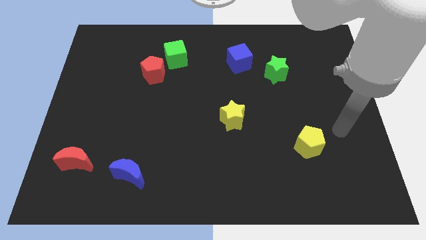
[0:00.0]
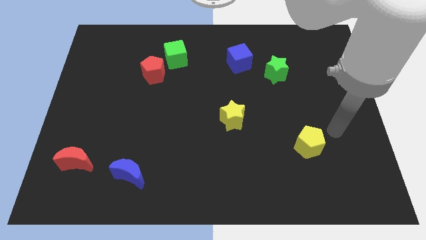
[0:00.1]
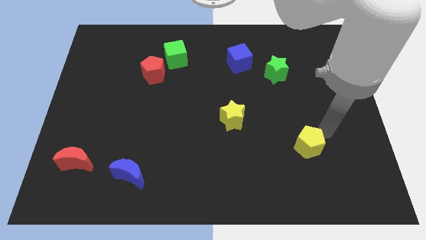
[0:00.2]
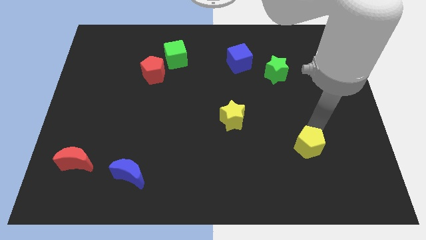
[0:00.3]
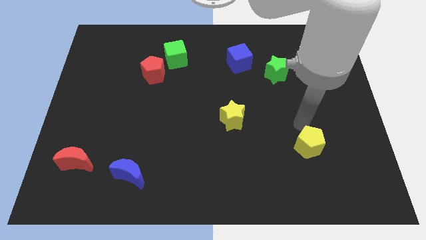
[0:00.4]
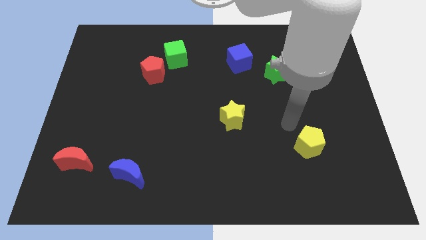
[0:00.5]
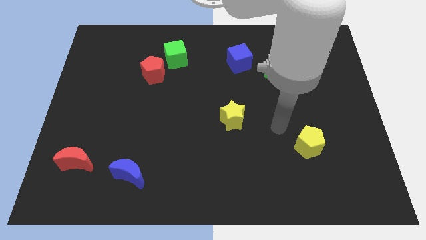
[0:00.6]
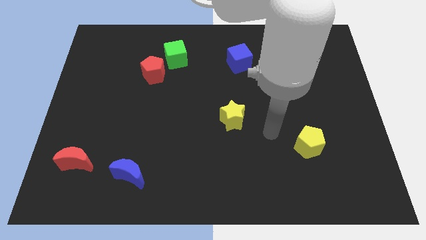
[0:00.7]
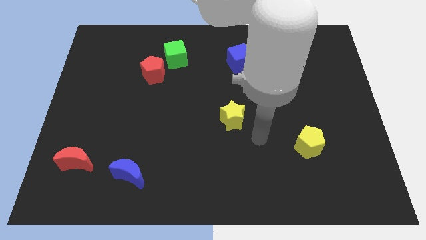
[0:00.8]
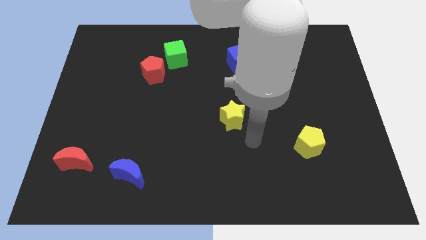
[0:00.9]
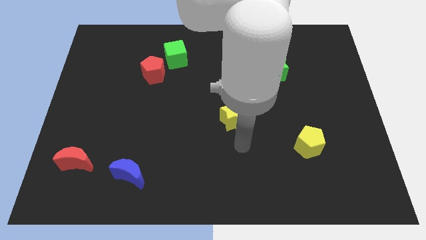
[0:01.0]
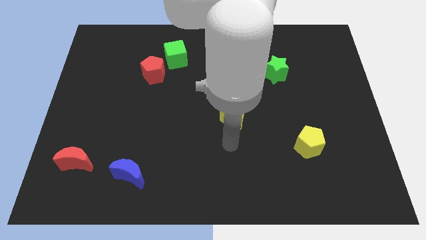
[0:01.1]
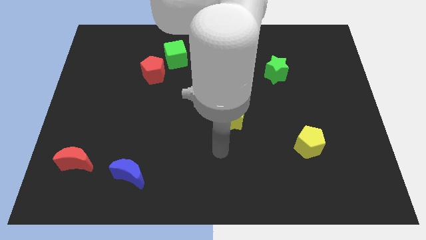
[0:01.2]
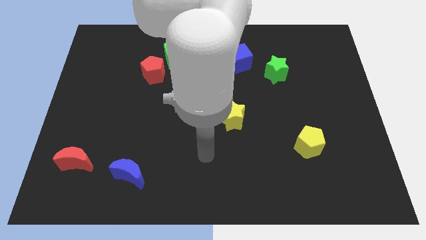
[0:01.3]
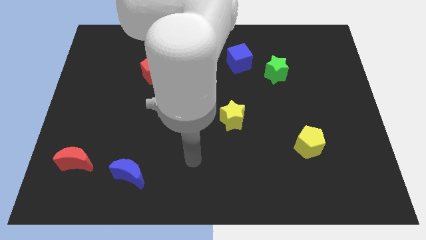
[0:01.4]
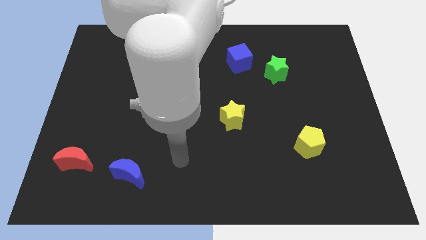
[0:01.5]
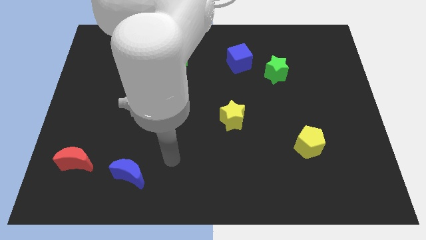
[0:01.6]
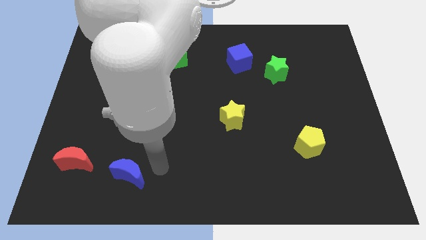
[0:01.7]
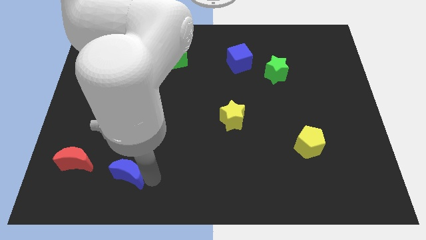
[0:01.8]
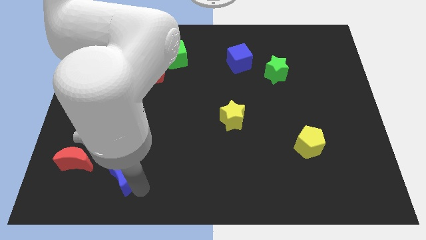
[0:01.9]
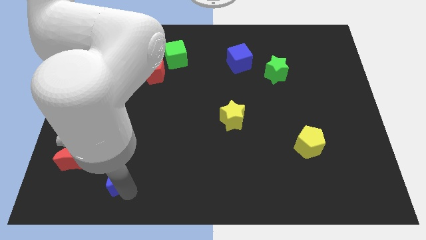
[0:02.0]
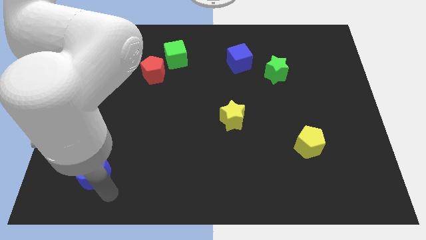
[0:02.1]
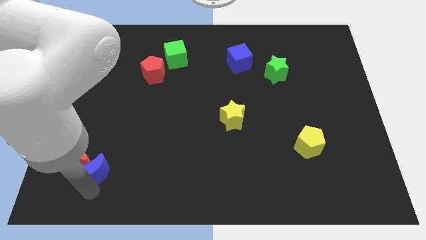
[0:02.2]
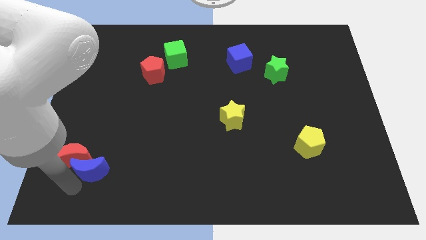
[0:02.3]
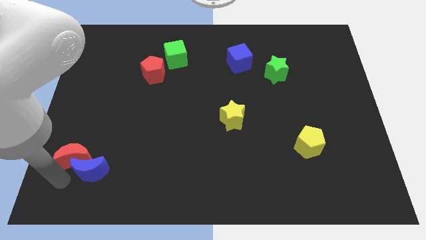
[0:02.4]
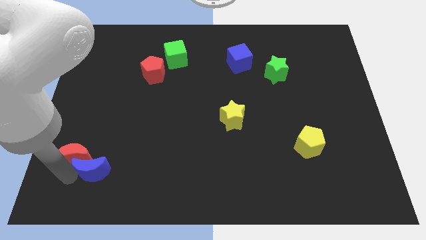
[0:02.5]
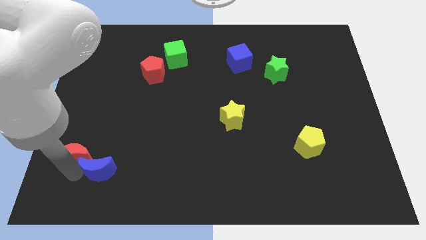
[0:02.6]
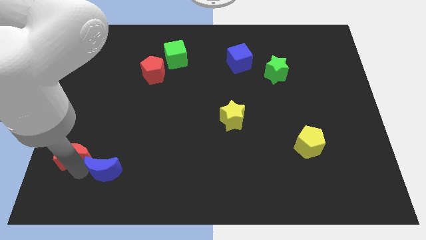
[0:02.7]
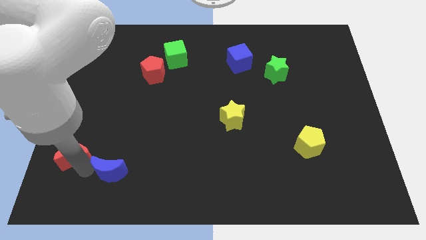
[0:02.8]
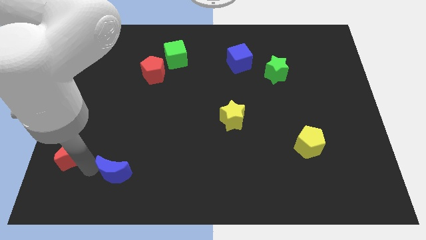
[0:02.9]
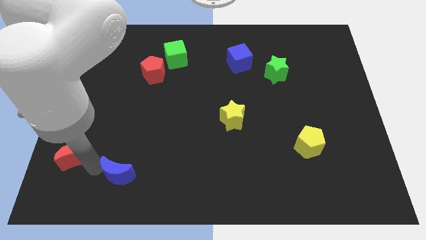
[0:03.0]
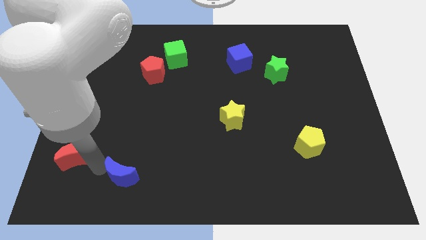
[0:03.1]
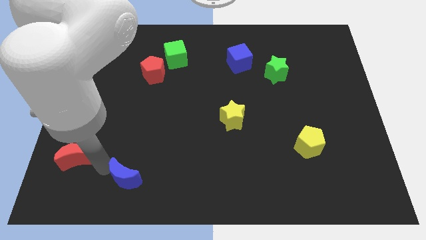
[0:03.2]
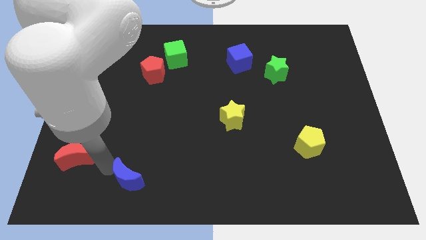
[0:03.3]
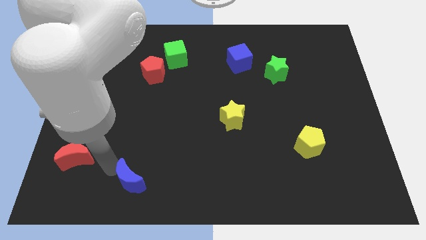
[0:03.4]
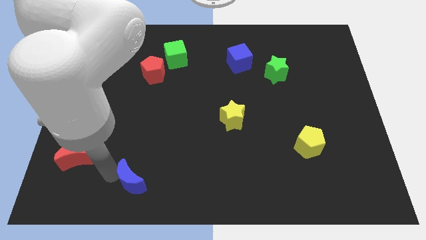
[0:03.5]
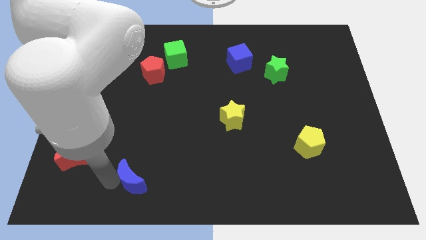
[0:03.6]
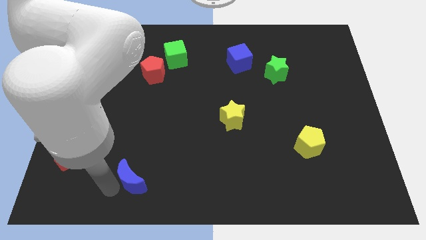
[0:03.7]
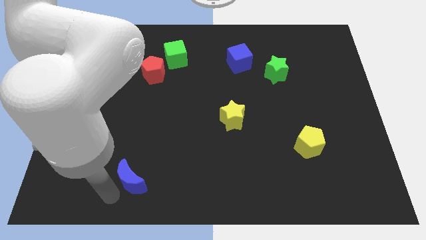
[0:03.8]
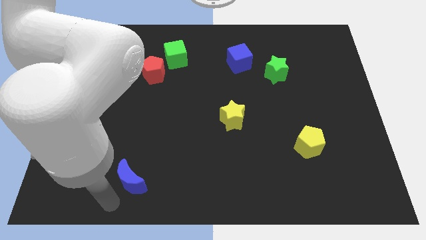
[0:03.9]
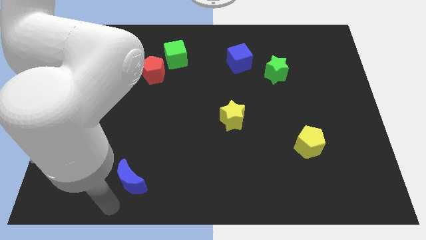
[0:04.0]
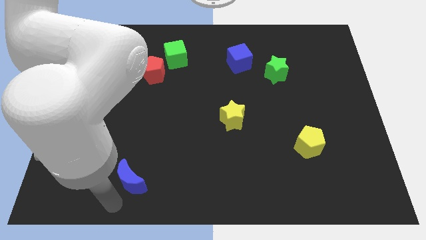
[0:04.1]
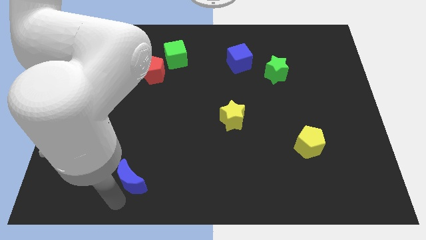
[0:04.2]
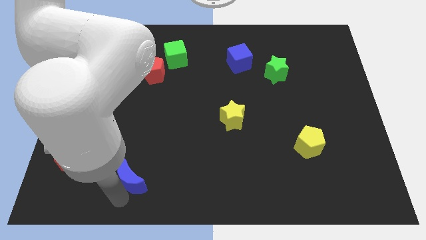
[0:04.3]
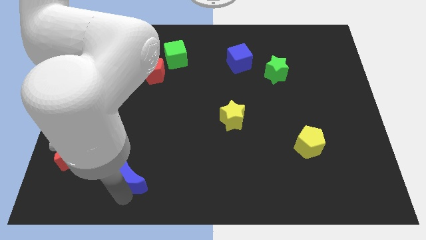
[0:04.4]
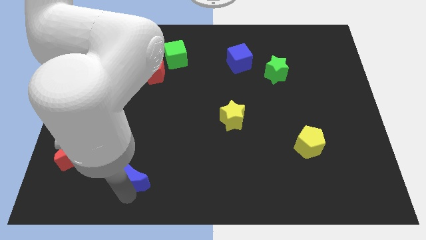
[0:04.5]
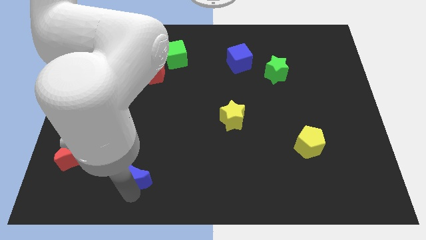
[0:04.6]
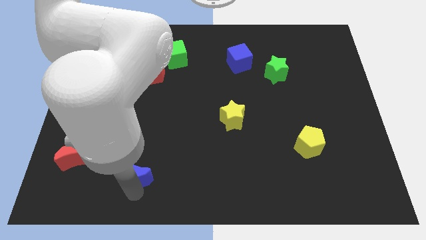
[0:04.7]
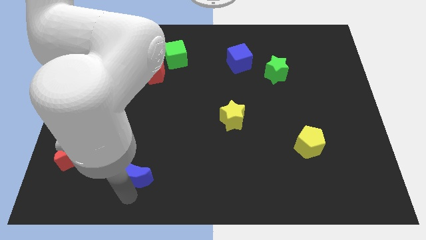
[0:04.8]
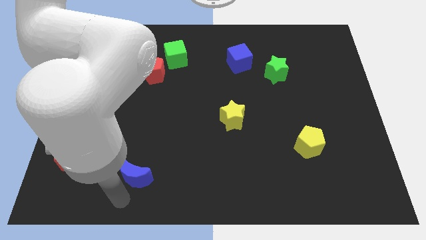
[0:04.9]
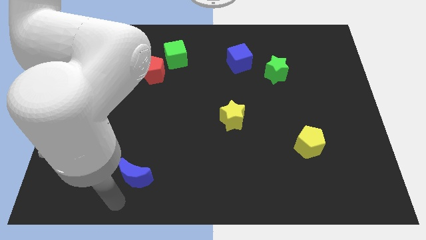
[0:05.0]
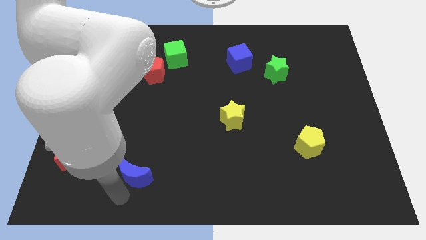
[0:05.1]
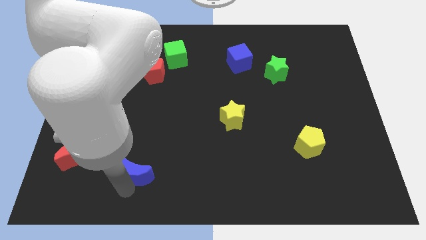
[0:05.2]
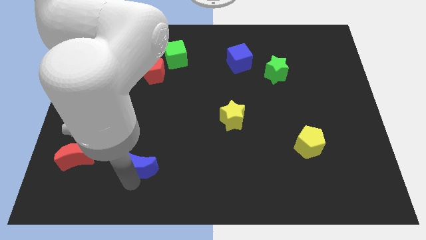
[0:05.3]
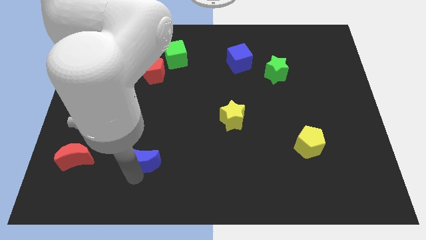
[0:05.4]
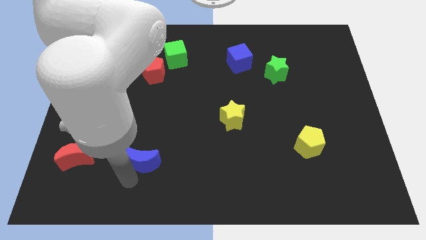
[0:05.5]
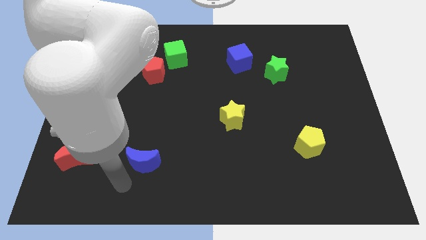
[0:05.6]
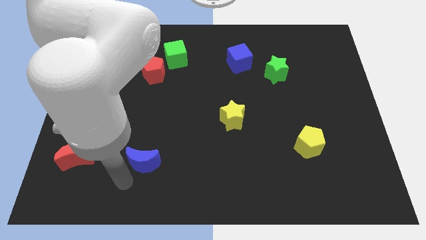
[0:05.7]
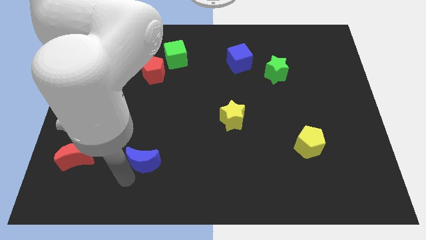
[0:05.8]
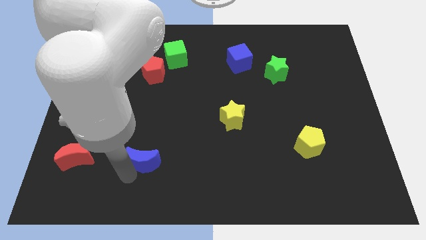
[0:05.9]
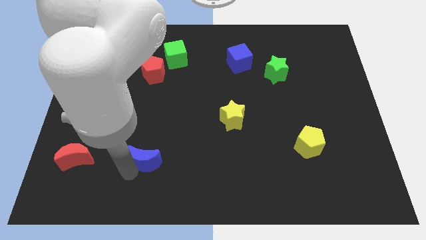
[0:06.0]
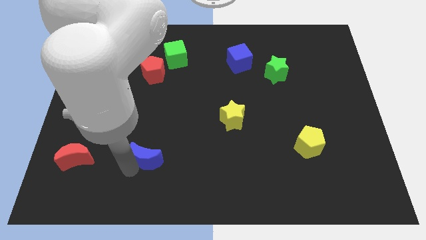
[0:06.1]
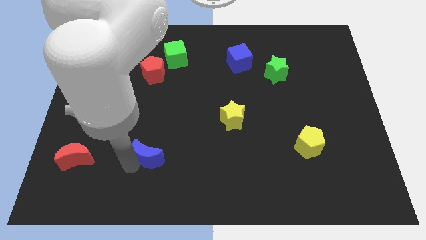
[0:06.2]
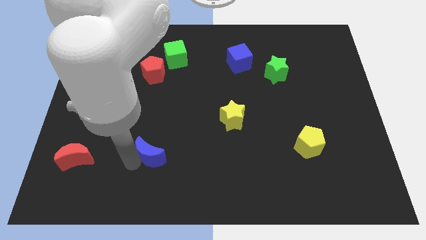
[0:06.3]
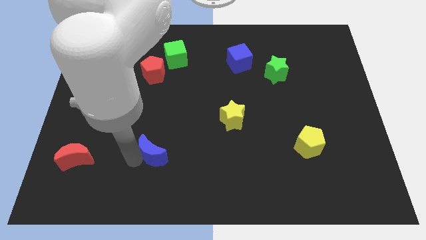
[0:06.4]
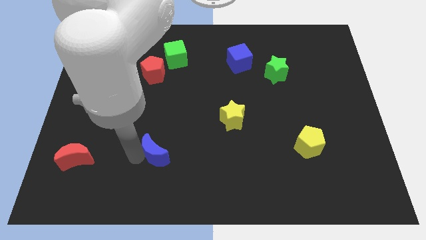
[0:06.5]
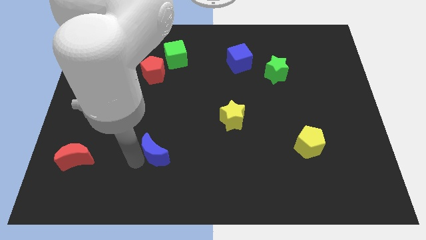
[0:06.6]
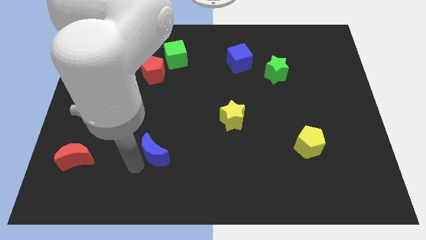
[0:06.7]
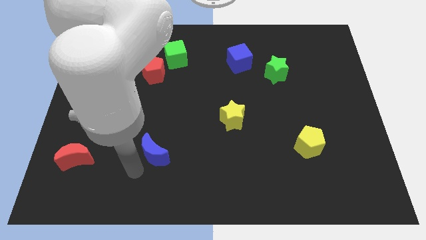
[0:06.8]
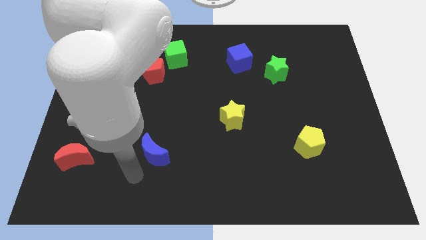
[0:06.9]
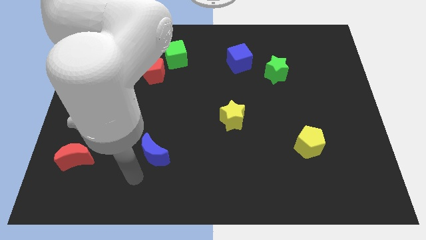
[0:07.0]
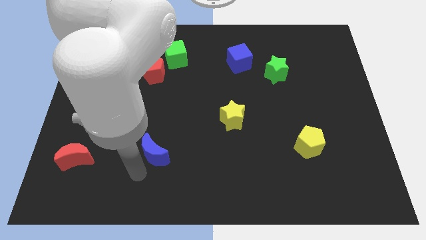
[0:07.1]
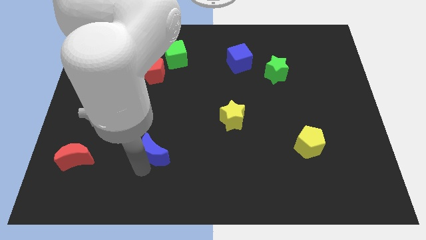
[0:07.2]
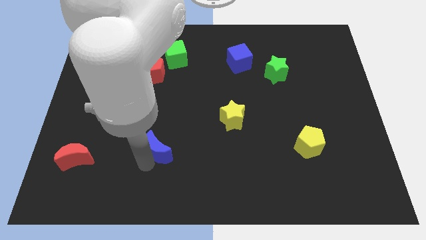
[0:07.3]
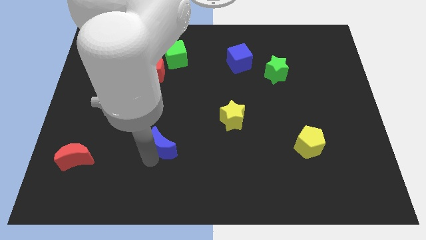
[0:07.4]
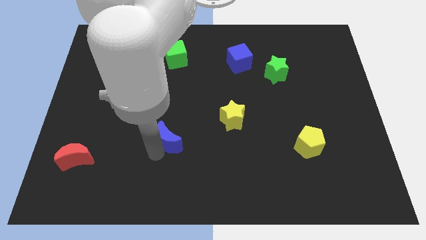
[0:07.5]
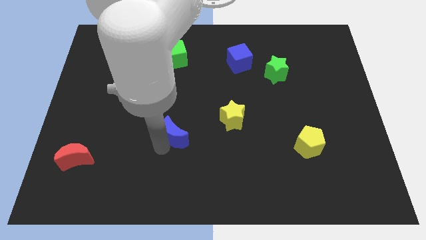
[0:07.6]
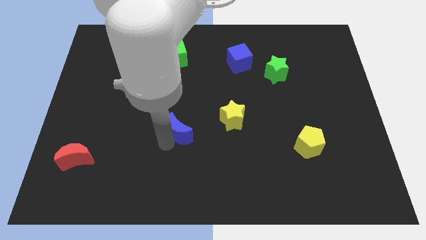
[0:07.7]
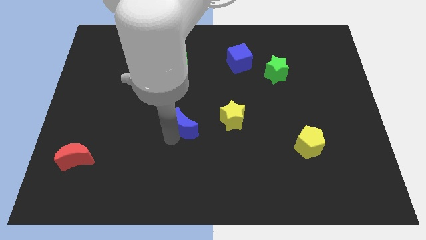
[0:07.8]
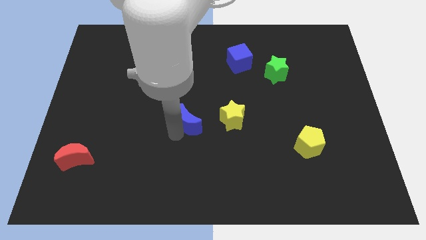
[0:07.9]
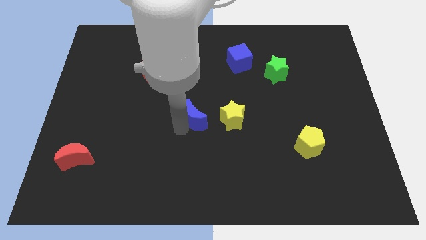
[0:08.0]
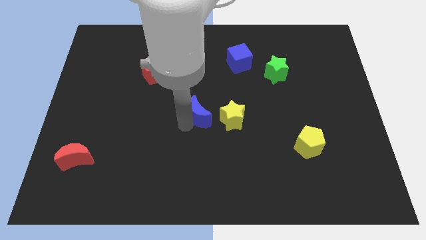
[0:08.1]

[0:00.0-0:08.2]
push the blue moon diagonally upwards and right
